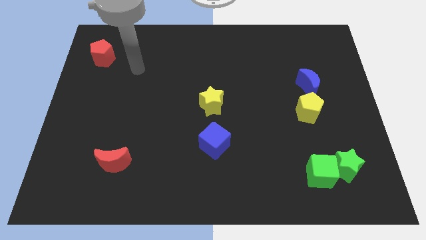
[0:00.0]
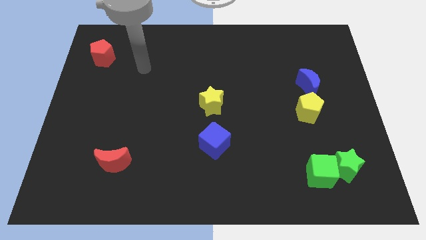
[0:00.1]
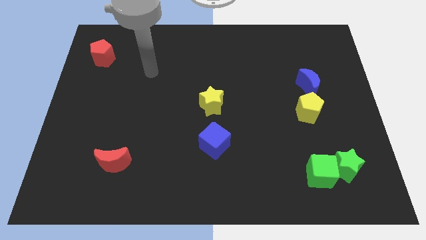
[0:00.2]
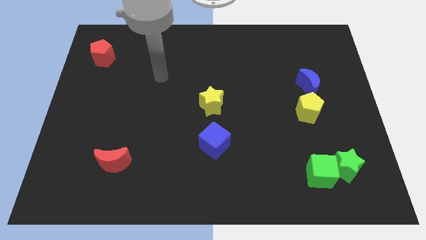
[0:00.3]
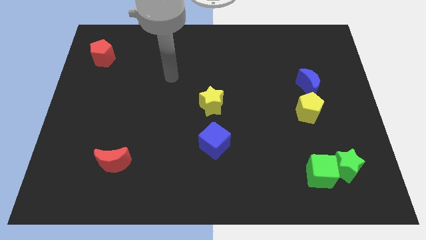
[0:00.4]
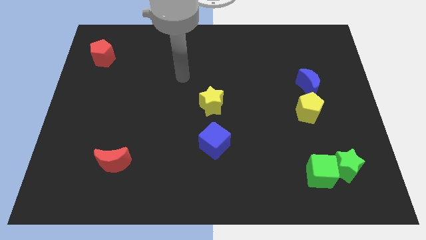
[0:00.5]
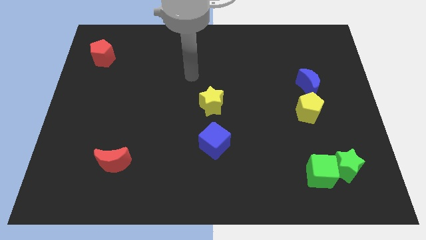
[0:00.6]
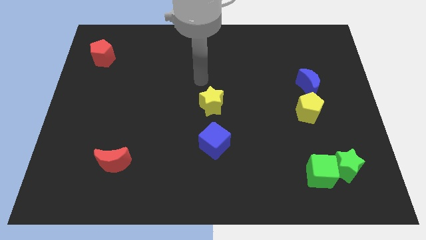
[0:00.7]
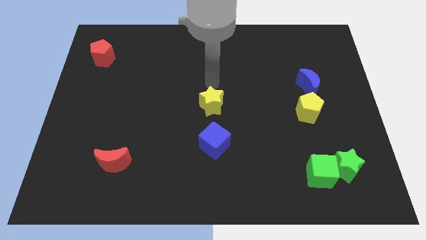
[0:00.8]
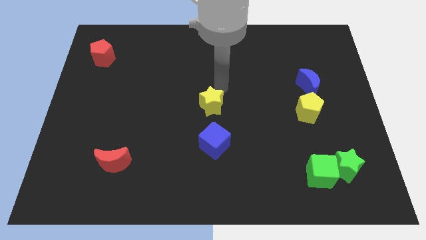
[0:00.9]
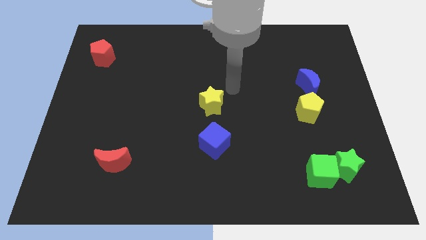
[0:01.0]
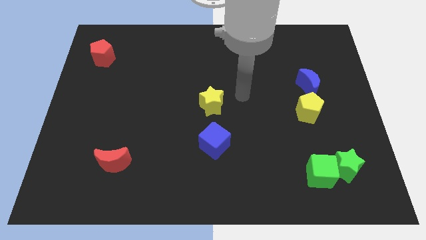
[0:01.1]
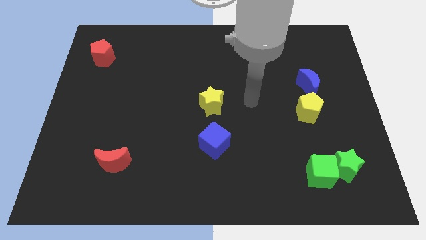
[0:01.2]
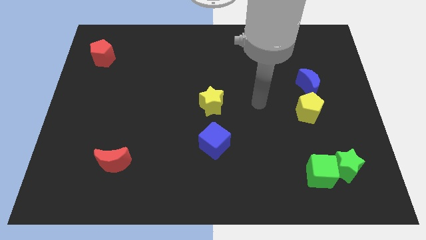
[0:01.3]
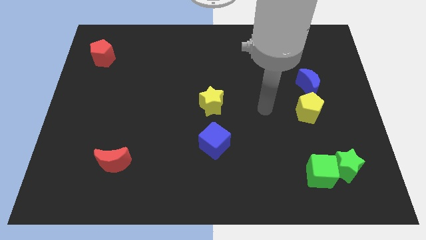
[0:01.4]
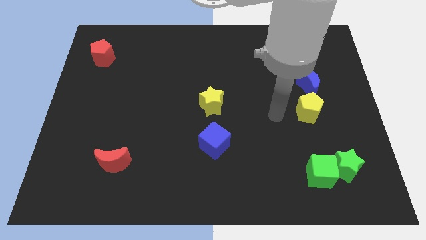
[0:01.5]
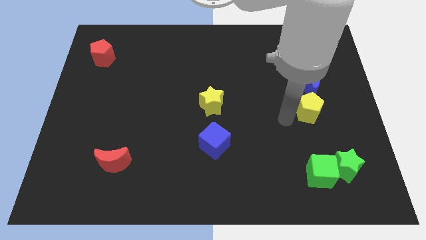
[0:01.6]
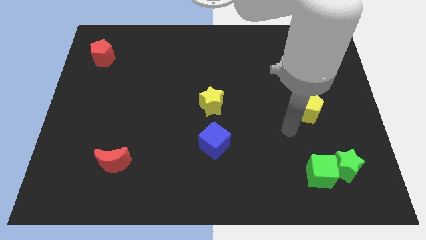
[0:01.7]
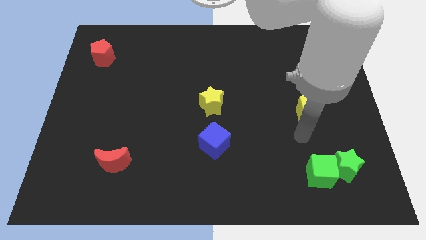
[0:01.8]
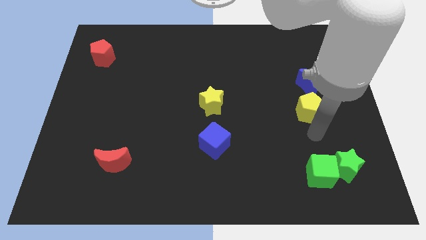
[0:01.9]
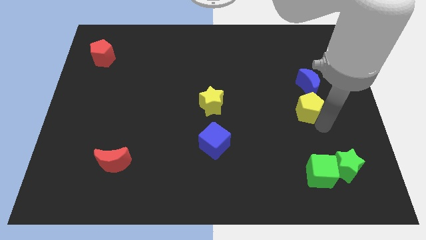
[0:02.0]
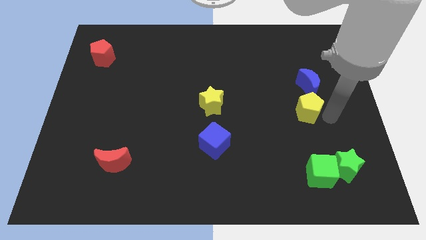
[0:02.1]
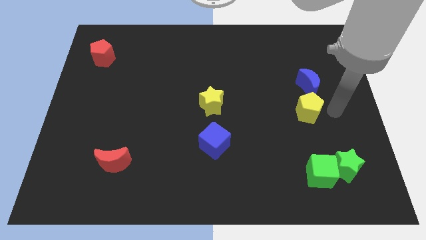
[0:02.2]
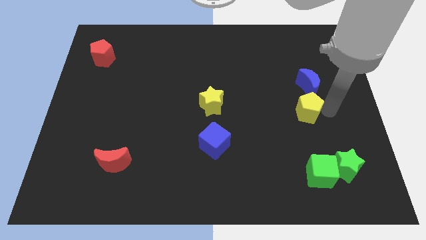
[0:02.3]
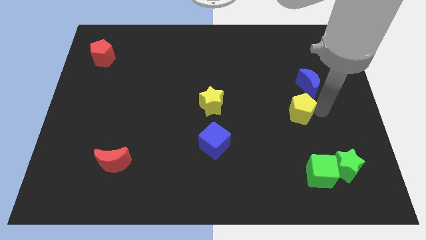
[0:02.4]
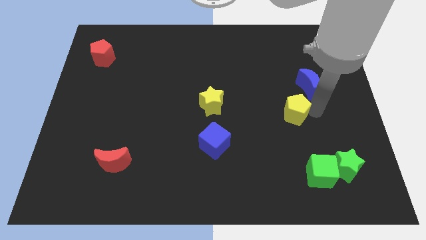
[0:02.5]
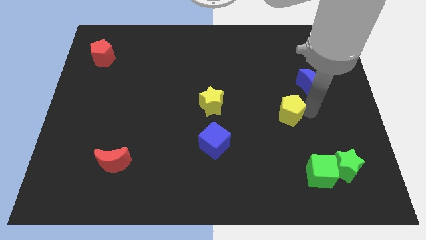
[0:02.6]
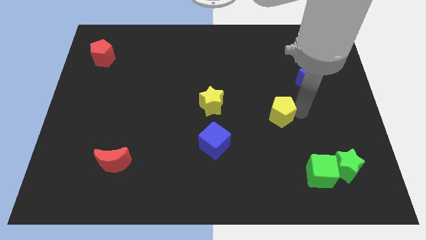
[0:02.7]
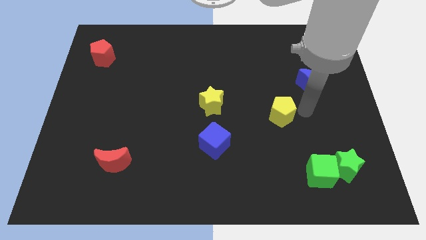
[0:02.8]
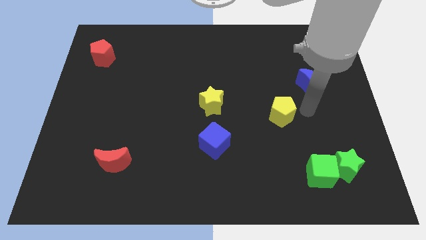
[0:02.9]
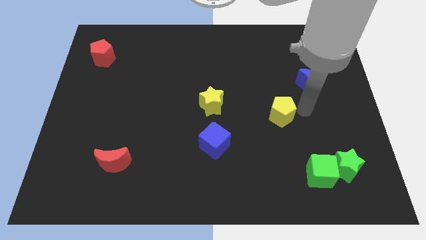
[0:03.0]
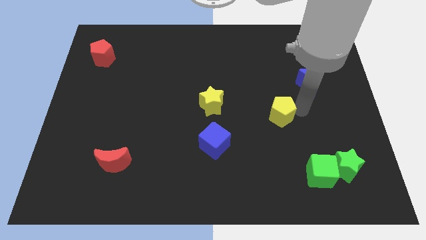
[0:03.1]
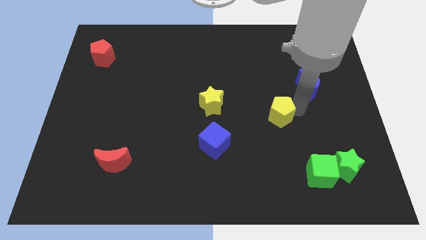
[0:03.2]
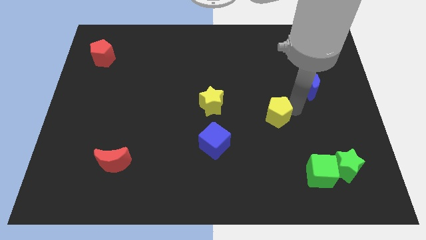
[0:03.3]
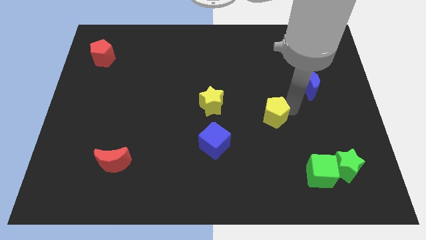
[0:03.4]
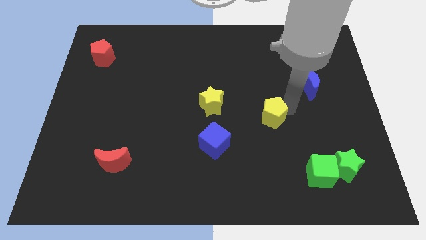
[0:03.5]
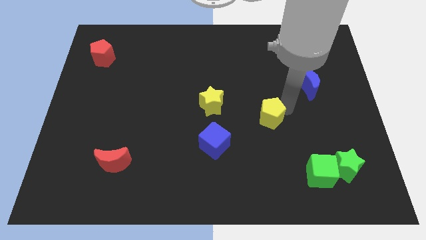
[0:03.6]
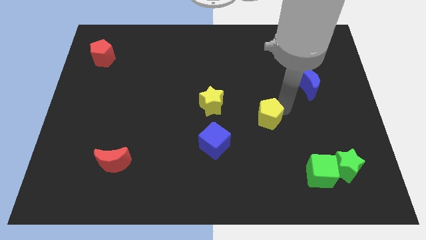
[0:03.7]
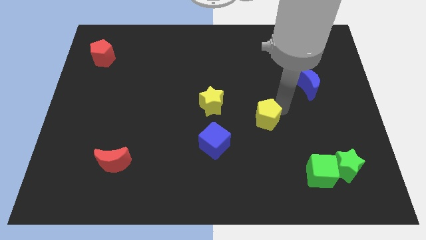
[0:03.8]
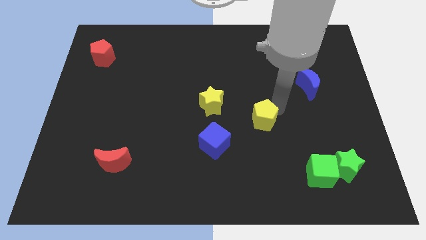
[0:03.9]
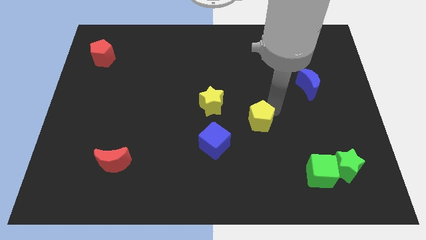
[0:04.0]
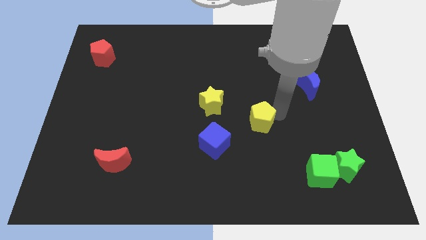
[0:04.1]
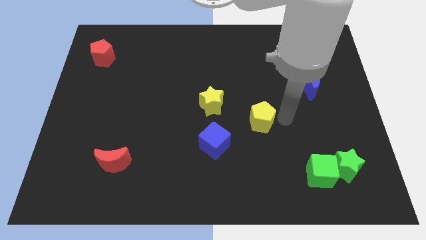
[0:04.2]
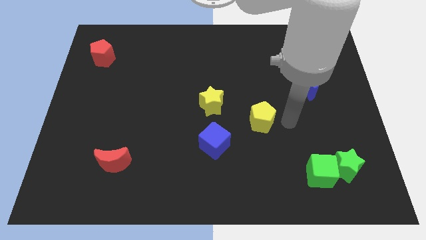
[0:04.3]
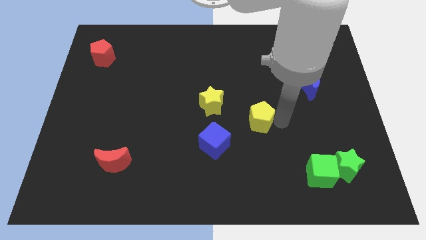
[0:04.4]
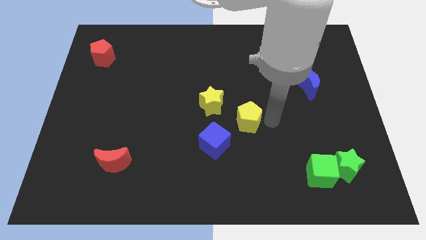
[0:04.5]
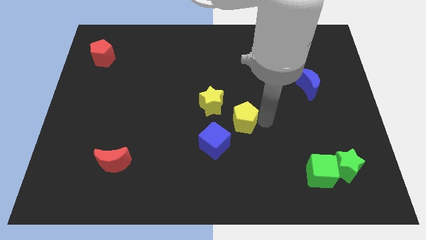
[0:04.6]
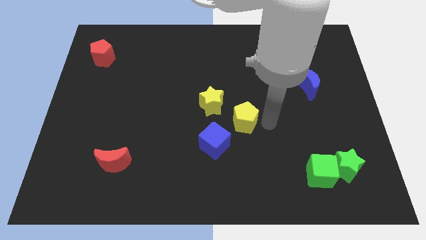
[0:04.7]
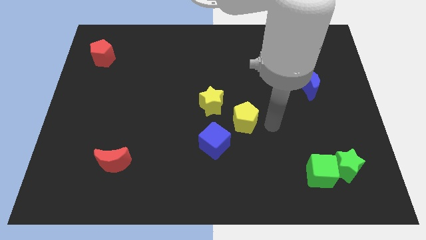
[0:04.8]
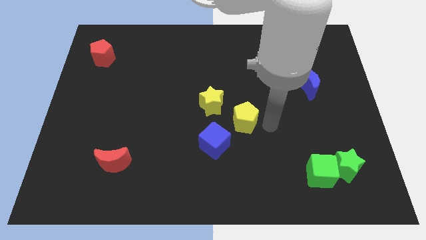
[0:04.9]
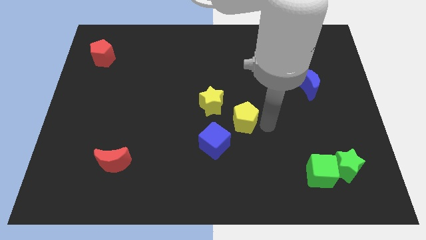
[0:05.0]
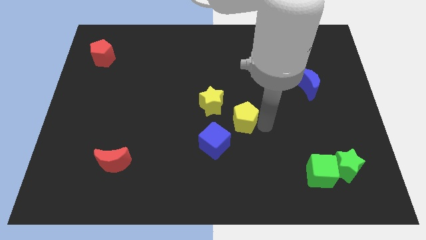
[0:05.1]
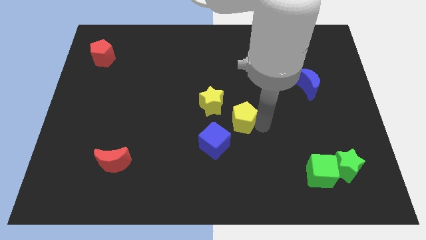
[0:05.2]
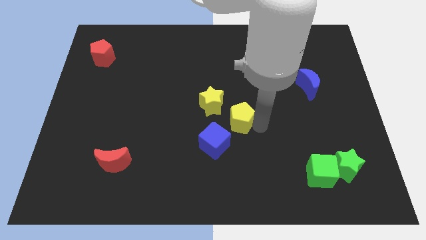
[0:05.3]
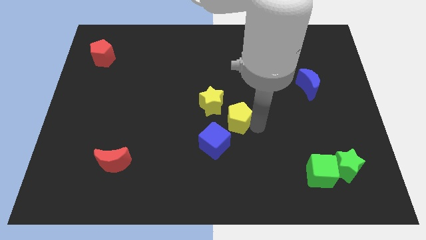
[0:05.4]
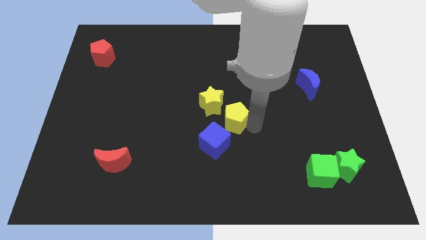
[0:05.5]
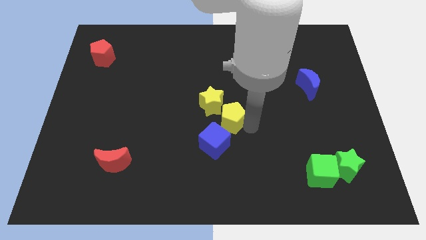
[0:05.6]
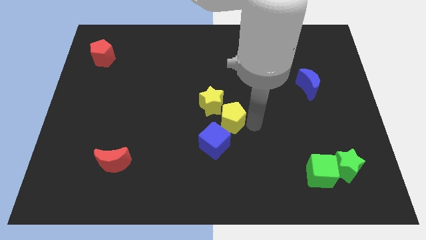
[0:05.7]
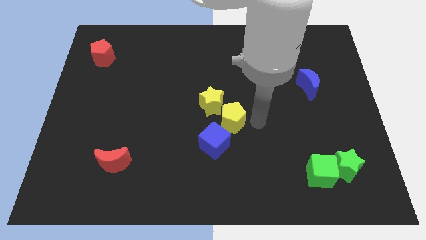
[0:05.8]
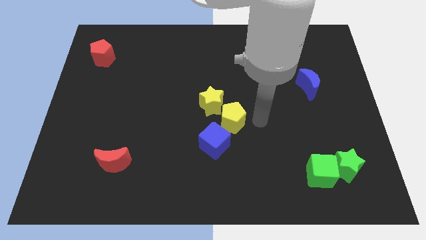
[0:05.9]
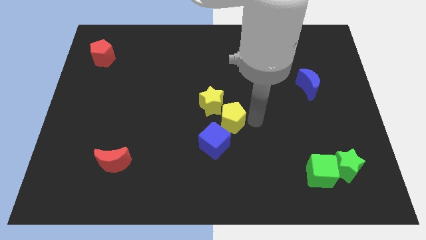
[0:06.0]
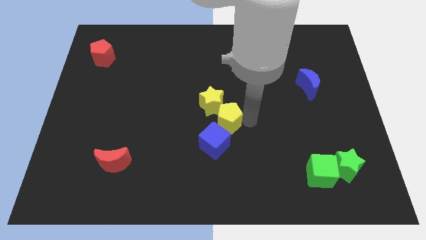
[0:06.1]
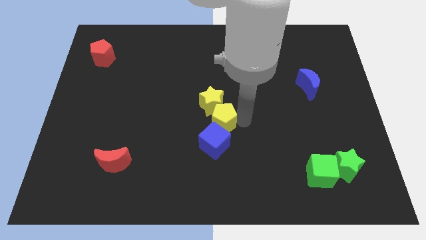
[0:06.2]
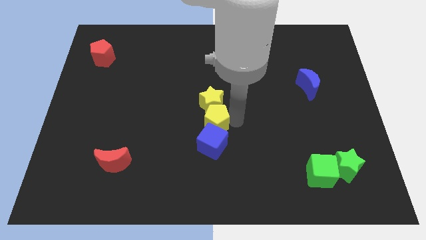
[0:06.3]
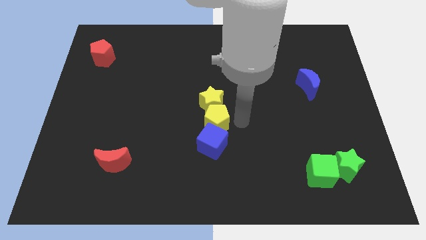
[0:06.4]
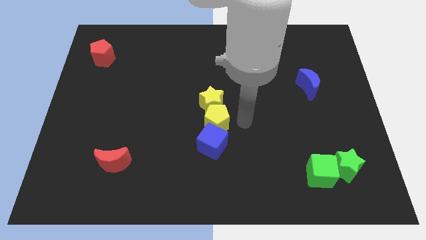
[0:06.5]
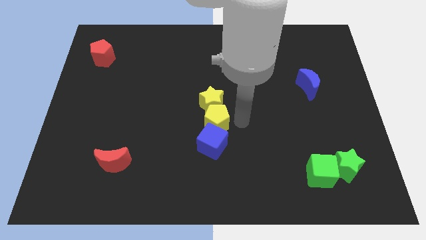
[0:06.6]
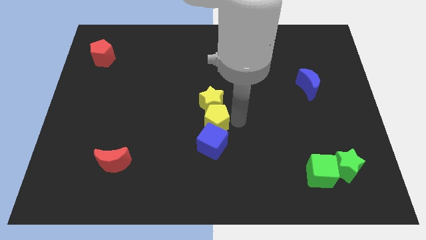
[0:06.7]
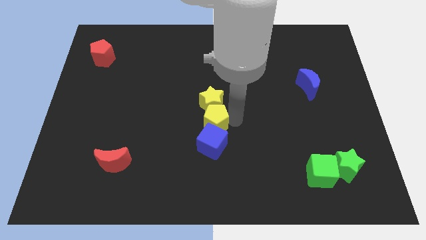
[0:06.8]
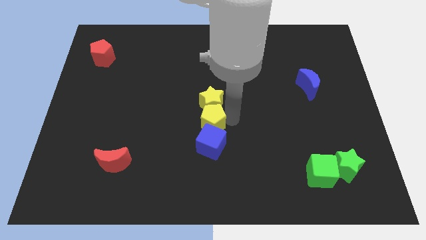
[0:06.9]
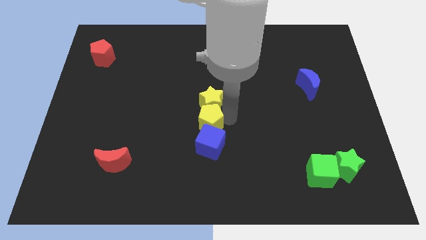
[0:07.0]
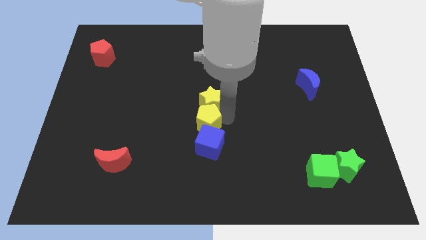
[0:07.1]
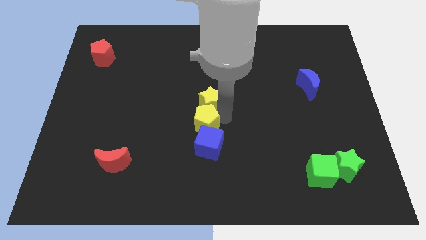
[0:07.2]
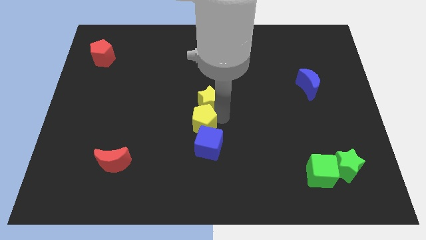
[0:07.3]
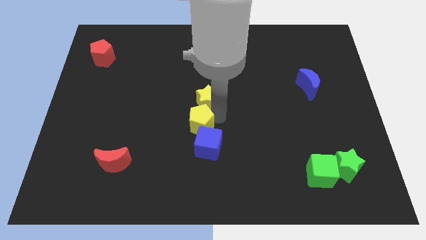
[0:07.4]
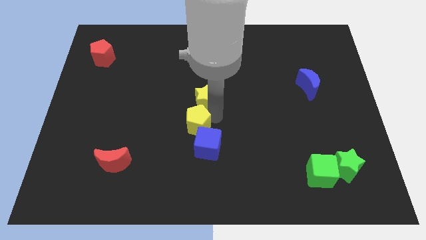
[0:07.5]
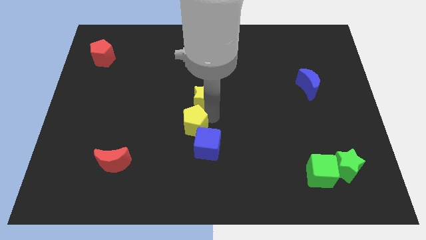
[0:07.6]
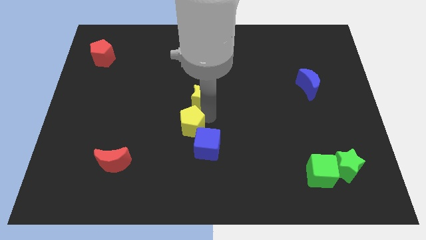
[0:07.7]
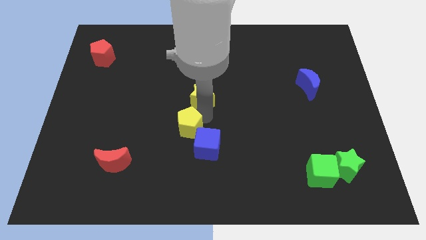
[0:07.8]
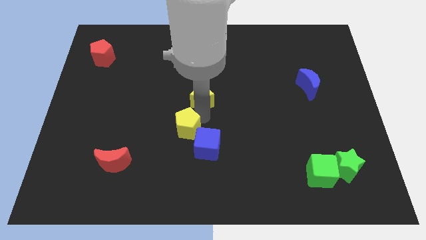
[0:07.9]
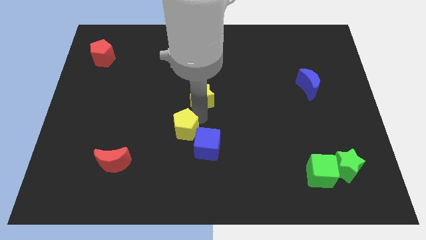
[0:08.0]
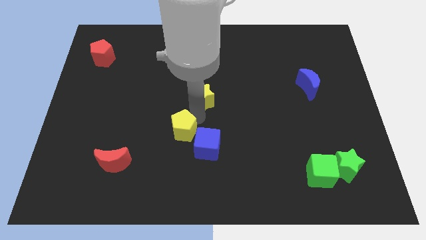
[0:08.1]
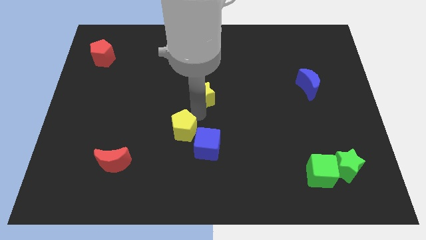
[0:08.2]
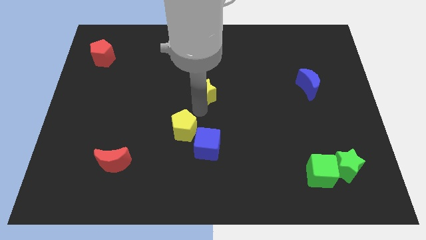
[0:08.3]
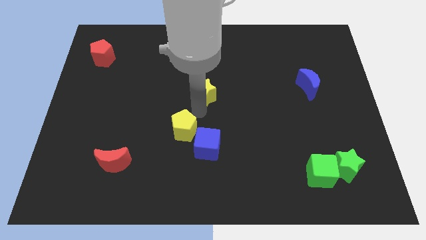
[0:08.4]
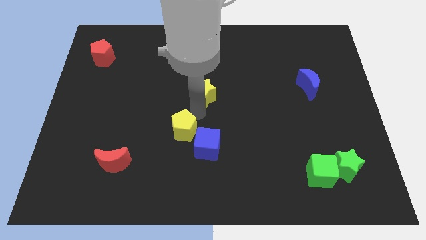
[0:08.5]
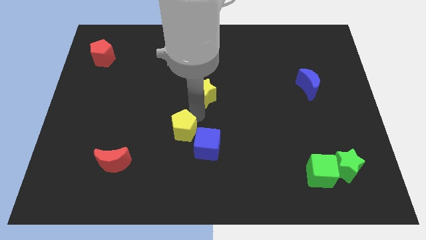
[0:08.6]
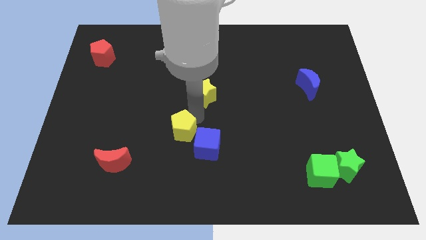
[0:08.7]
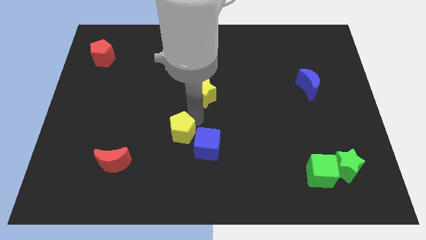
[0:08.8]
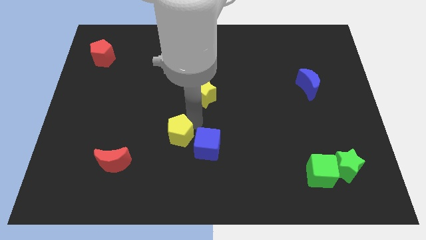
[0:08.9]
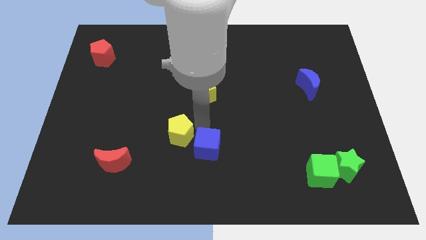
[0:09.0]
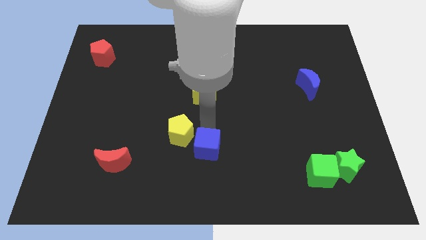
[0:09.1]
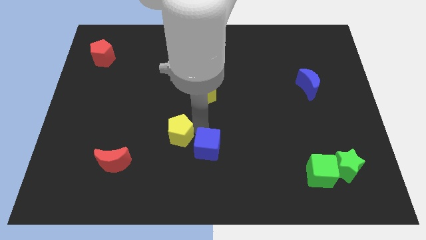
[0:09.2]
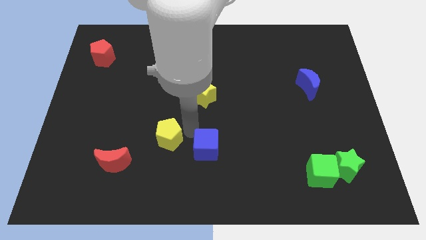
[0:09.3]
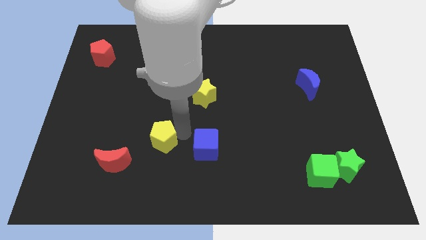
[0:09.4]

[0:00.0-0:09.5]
push the yellow pentagon to the top right of the red moon
